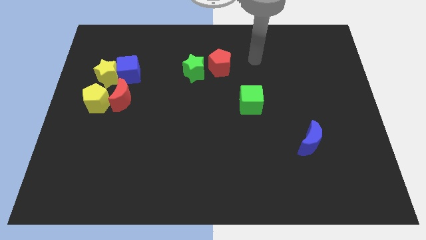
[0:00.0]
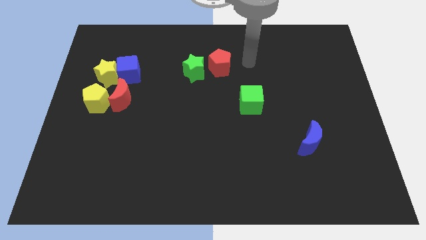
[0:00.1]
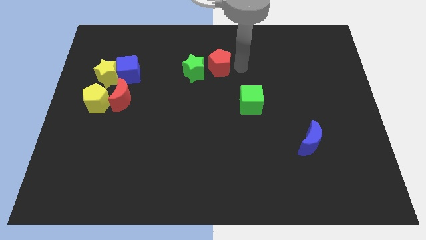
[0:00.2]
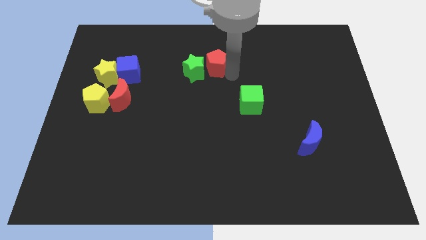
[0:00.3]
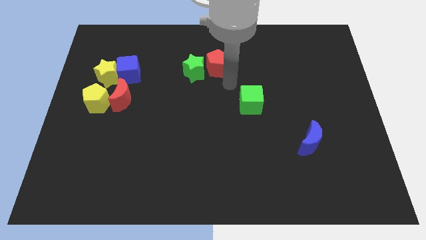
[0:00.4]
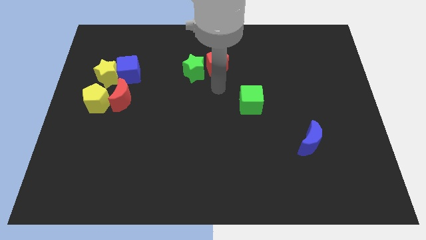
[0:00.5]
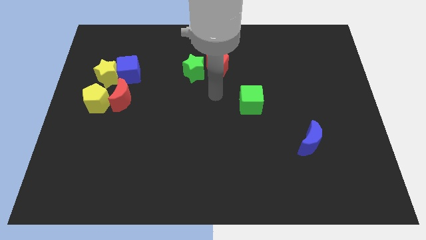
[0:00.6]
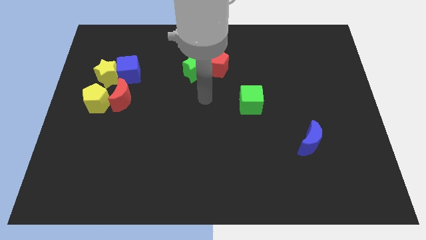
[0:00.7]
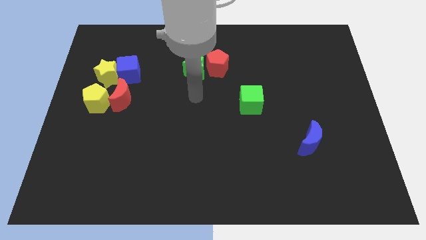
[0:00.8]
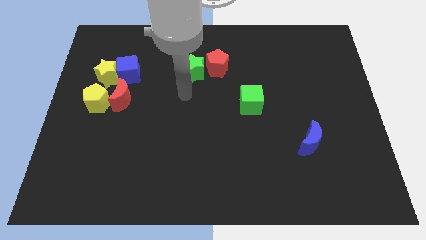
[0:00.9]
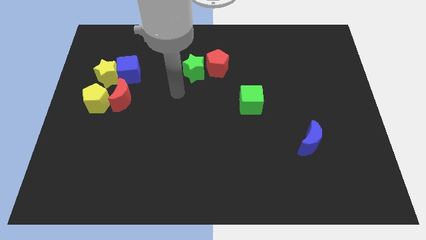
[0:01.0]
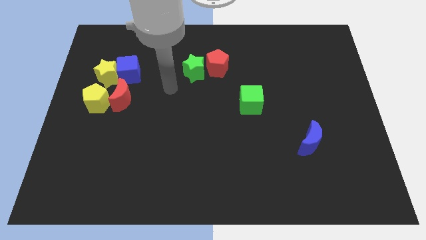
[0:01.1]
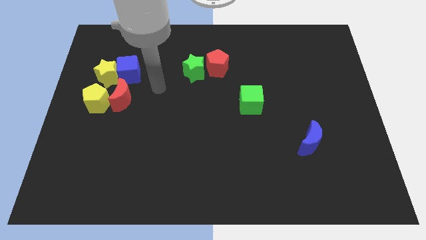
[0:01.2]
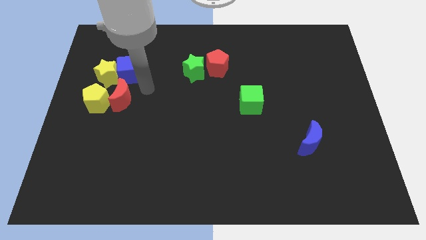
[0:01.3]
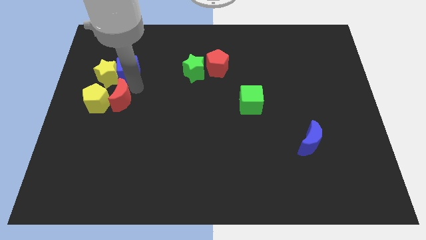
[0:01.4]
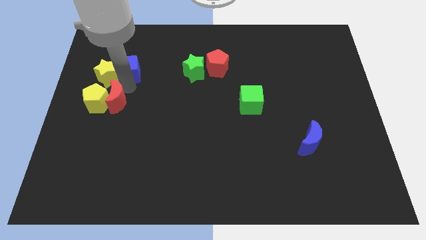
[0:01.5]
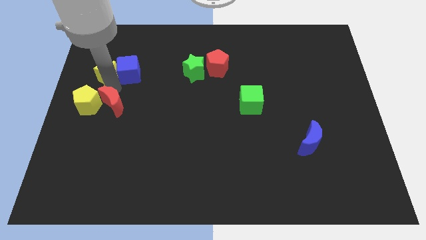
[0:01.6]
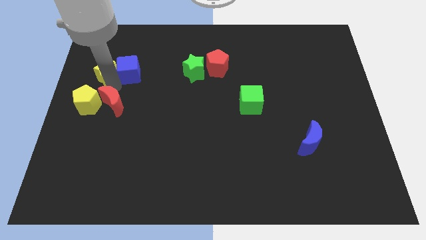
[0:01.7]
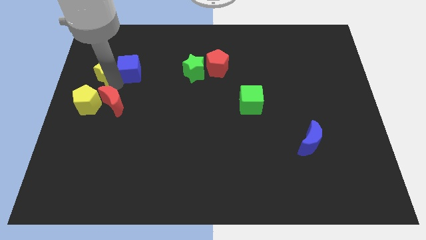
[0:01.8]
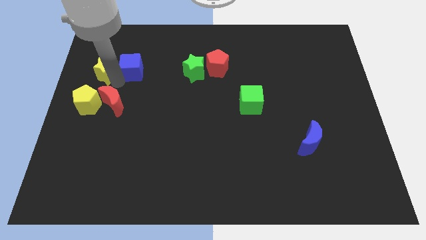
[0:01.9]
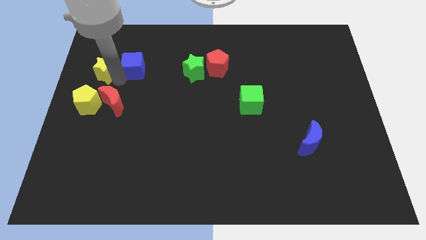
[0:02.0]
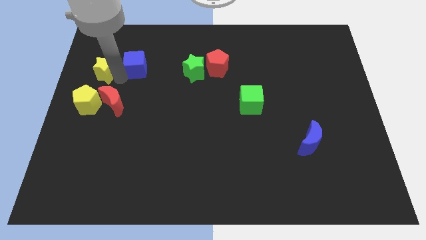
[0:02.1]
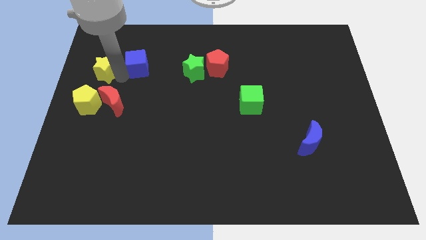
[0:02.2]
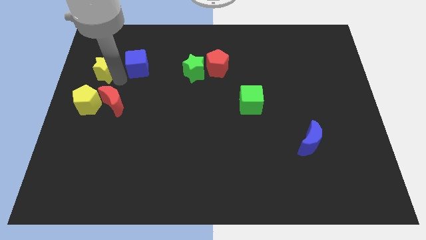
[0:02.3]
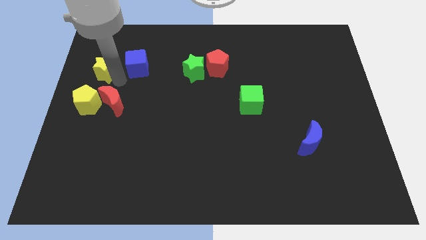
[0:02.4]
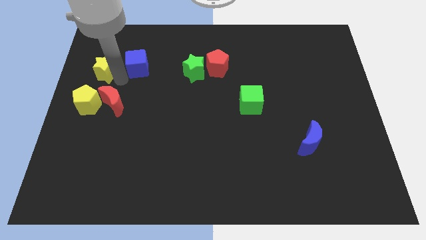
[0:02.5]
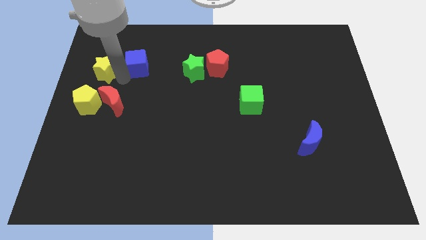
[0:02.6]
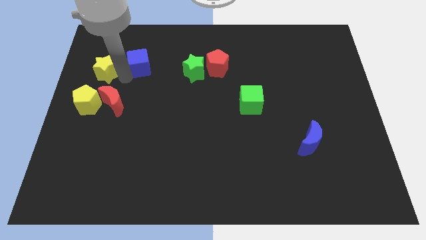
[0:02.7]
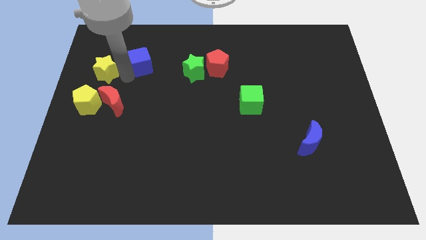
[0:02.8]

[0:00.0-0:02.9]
move the blue cube away from the yellow star and red moon

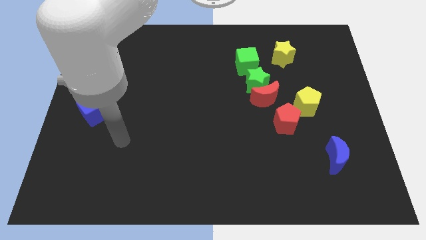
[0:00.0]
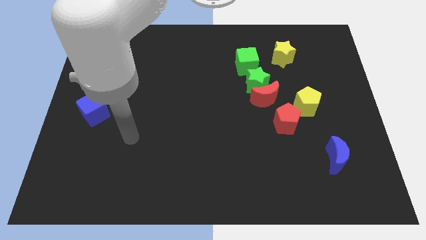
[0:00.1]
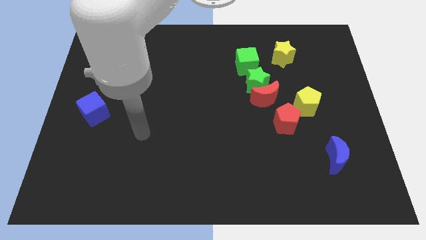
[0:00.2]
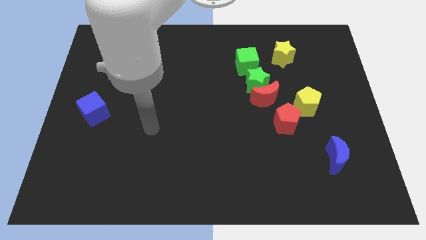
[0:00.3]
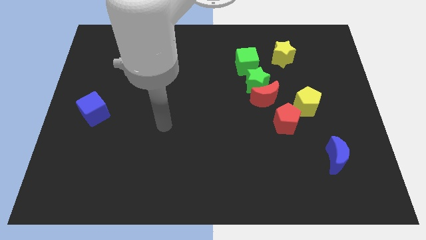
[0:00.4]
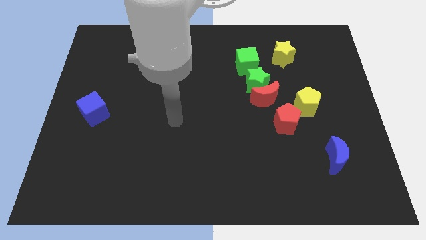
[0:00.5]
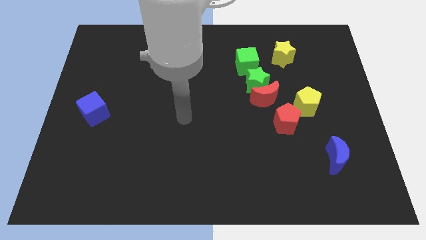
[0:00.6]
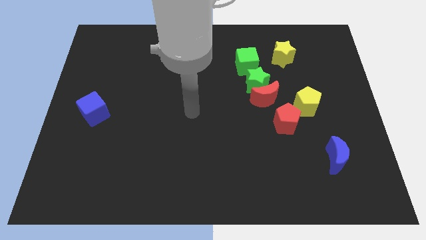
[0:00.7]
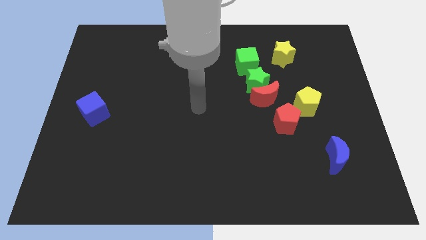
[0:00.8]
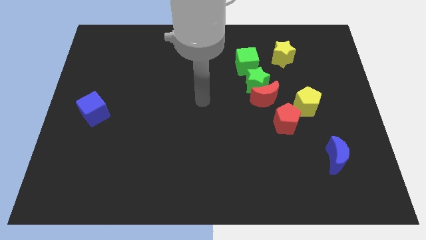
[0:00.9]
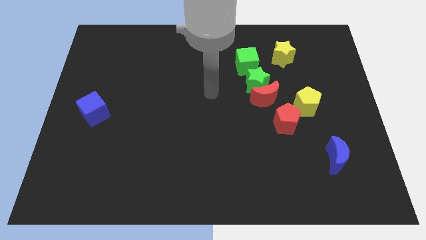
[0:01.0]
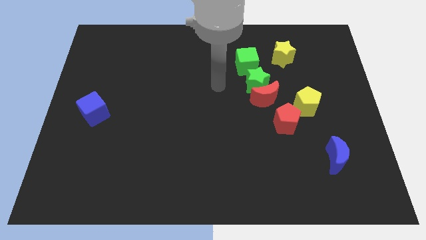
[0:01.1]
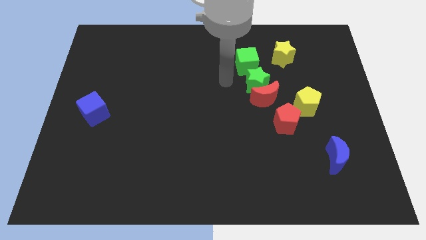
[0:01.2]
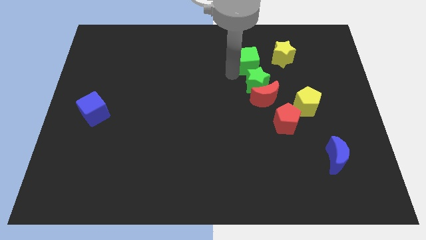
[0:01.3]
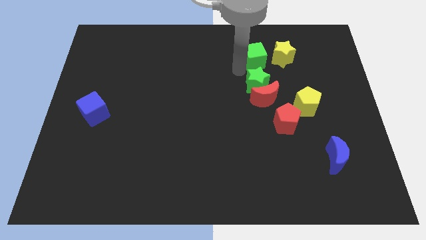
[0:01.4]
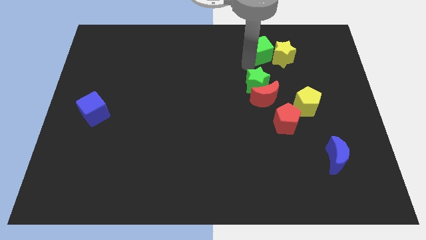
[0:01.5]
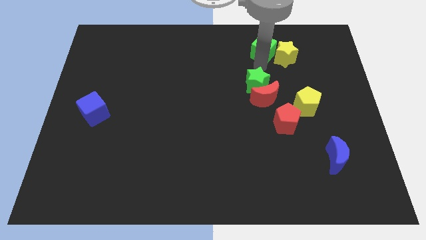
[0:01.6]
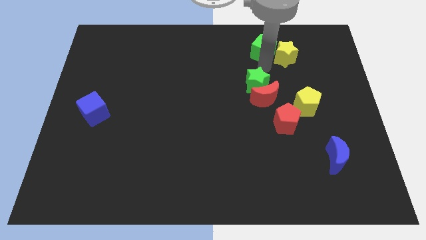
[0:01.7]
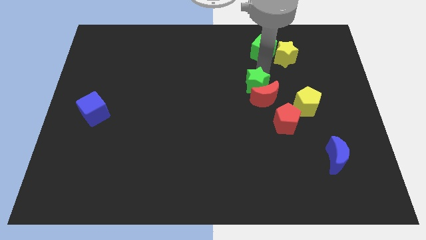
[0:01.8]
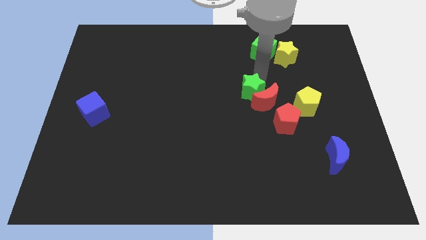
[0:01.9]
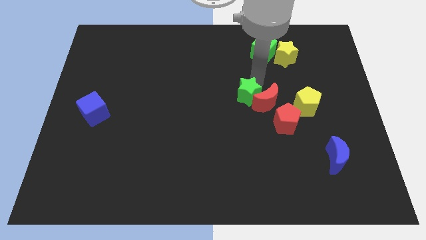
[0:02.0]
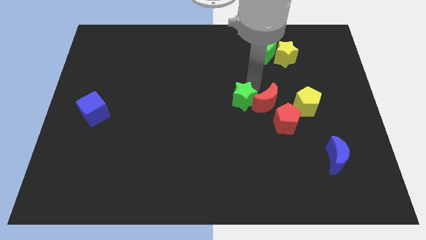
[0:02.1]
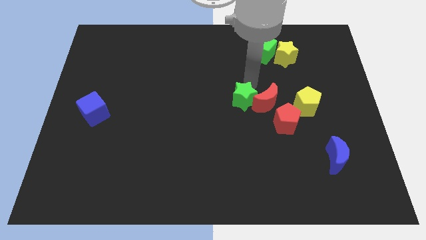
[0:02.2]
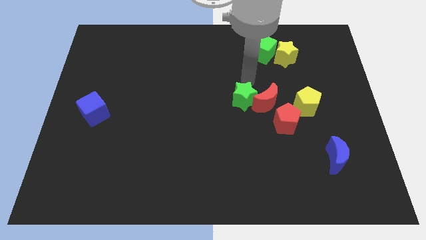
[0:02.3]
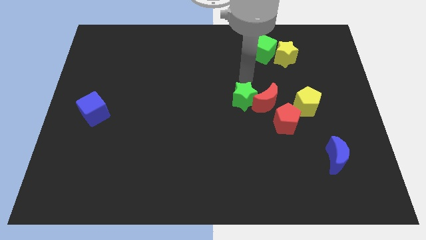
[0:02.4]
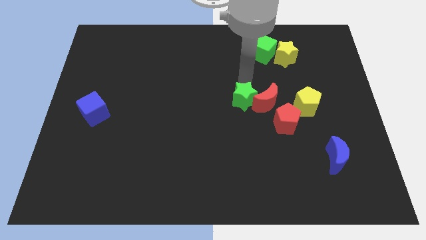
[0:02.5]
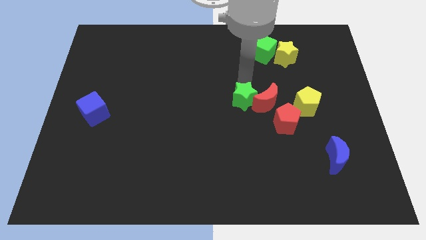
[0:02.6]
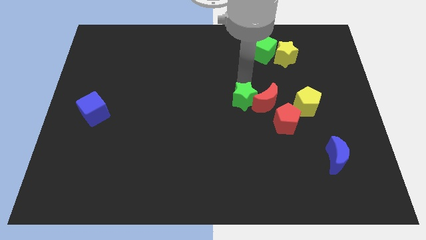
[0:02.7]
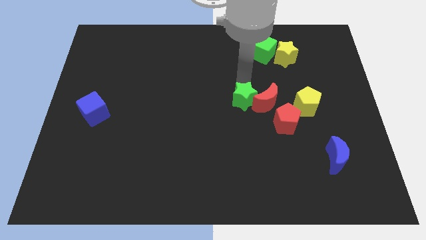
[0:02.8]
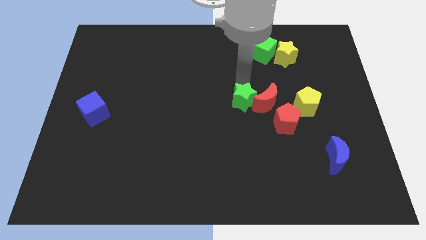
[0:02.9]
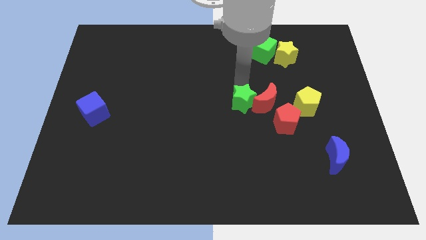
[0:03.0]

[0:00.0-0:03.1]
pull the green star apart from the red moon and green cube

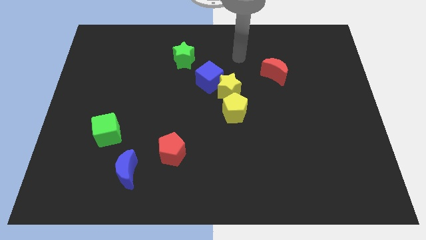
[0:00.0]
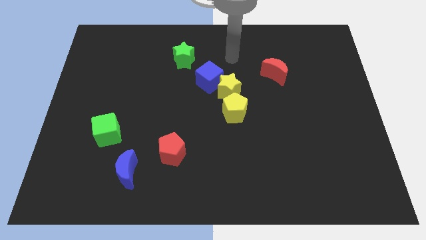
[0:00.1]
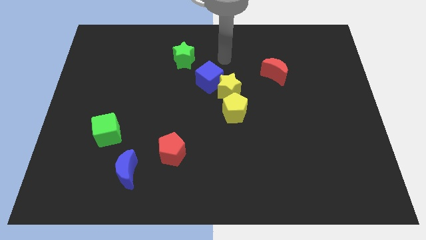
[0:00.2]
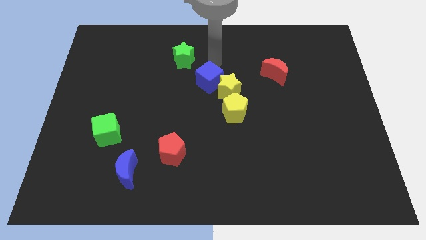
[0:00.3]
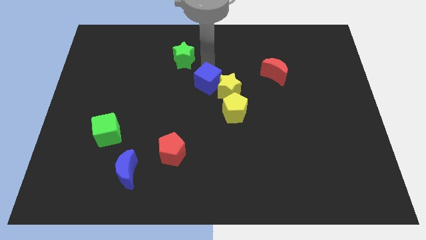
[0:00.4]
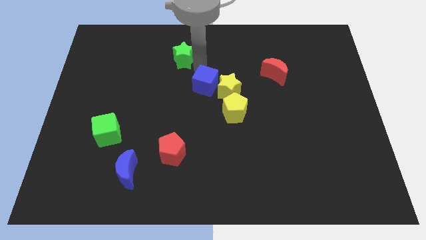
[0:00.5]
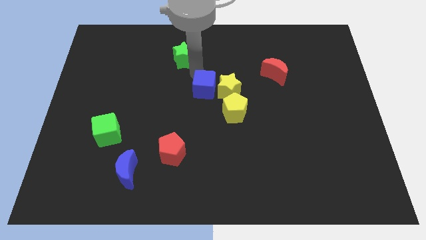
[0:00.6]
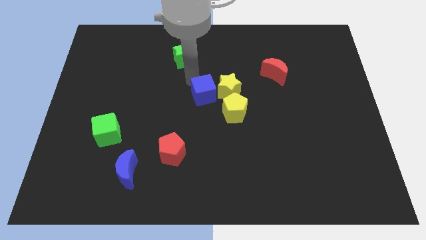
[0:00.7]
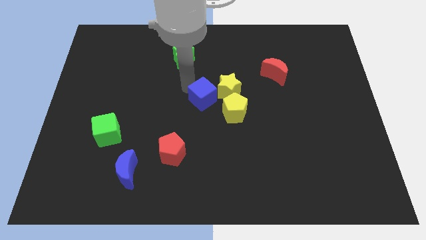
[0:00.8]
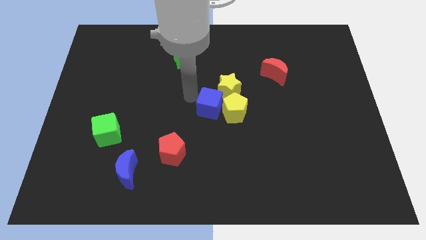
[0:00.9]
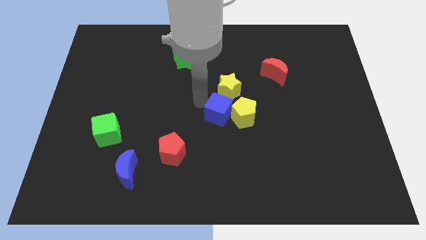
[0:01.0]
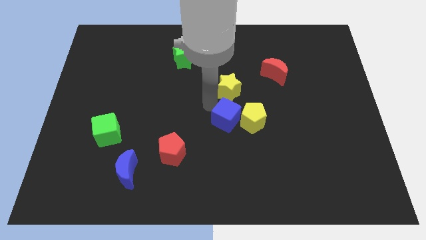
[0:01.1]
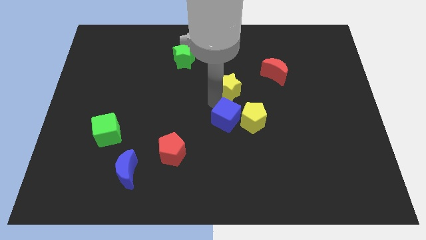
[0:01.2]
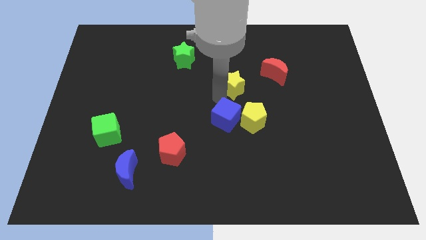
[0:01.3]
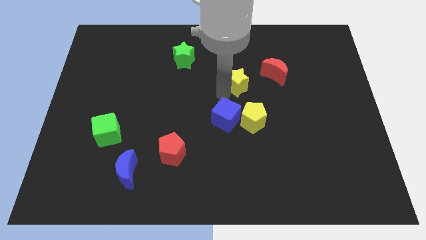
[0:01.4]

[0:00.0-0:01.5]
separate the yellow star from the blue cube and yellow pentagon

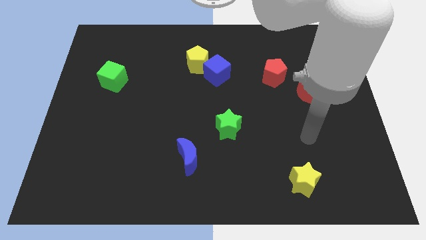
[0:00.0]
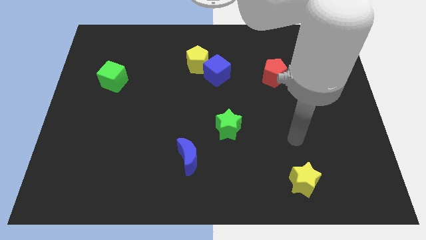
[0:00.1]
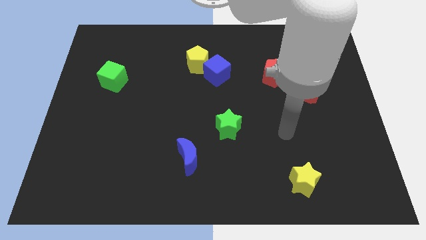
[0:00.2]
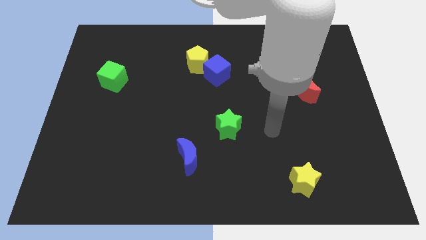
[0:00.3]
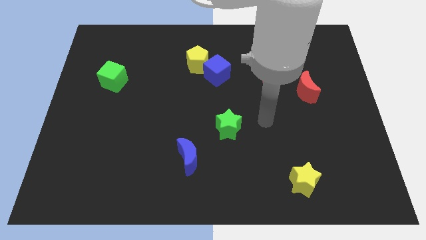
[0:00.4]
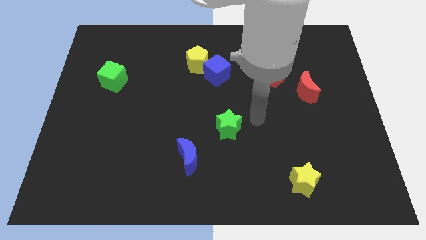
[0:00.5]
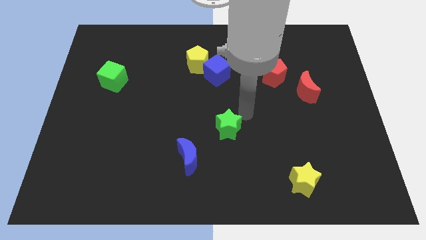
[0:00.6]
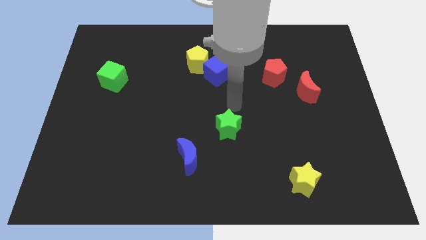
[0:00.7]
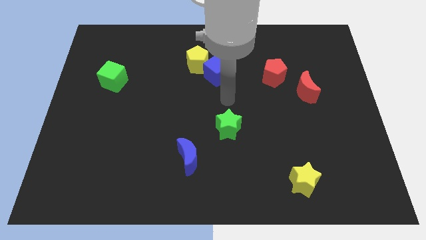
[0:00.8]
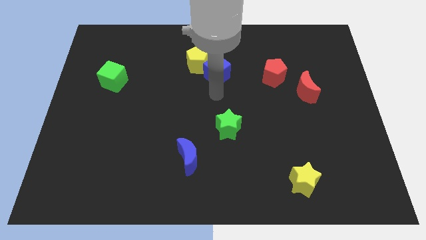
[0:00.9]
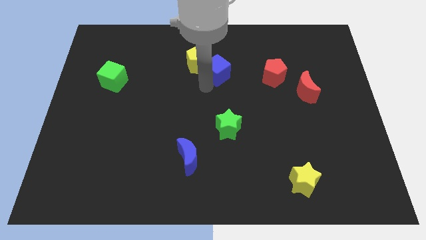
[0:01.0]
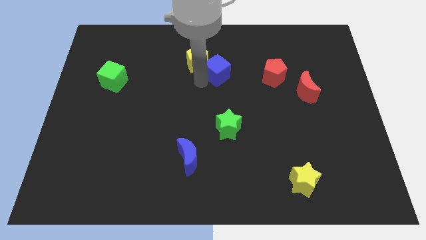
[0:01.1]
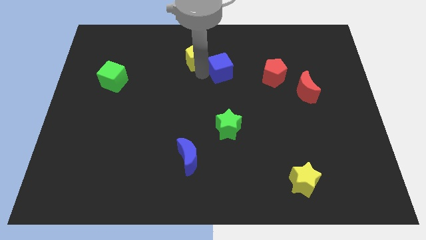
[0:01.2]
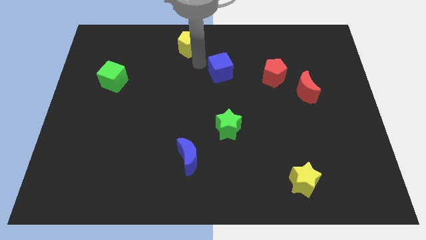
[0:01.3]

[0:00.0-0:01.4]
pull the blue cube apart from the yellow pentagon

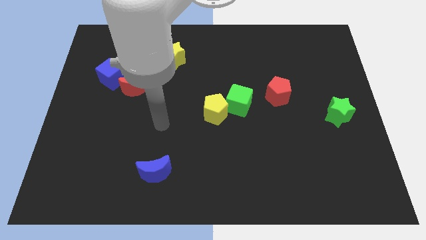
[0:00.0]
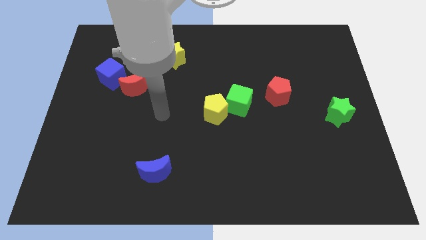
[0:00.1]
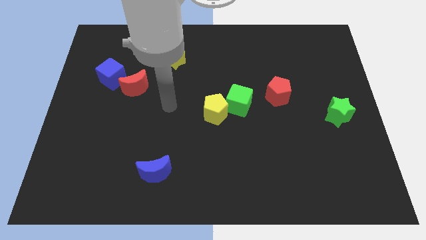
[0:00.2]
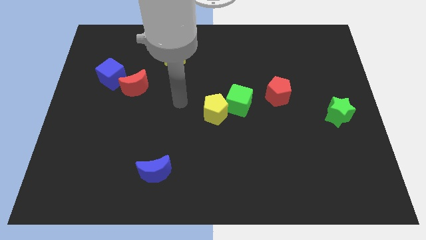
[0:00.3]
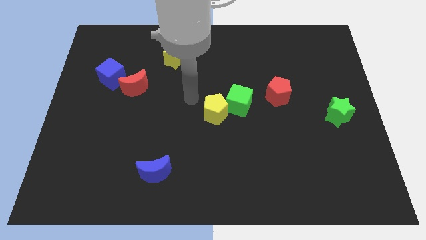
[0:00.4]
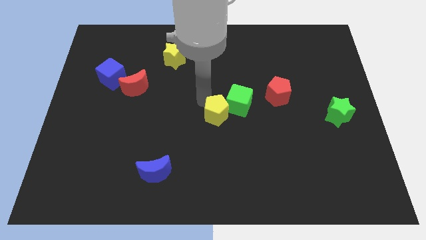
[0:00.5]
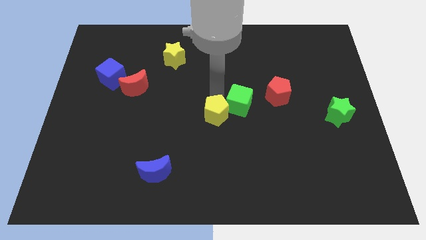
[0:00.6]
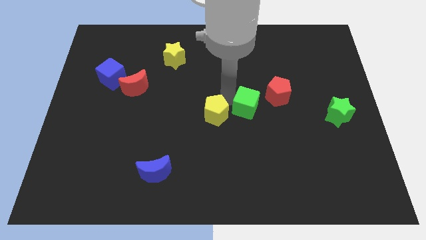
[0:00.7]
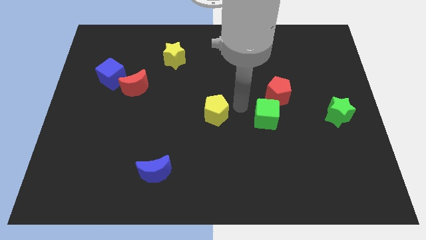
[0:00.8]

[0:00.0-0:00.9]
pull the yellow pentagon apart from the green cube
